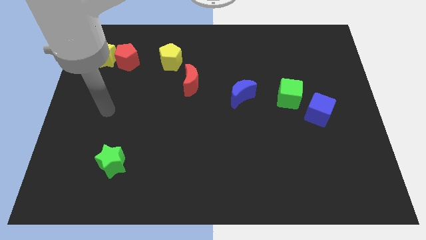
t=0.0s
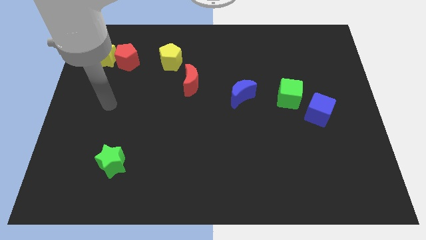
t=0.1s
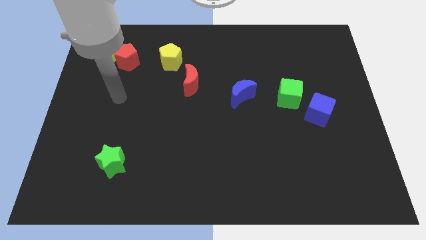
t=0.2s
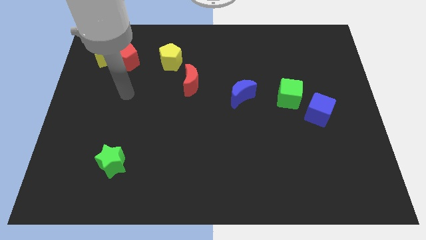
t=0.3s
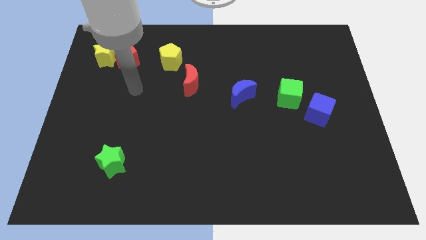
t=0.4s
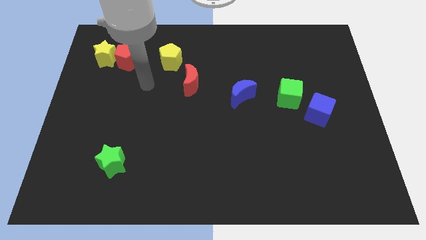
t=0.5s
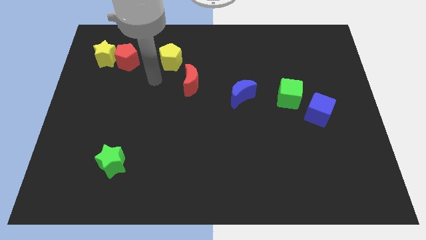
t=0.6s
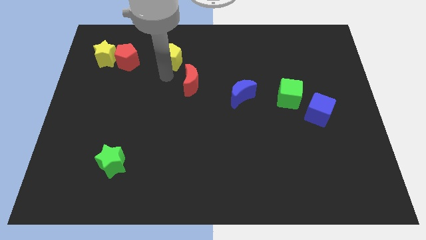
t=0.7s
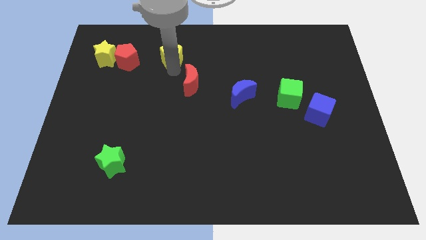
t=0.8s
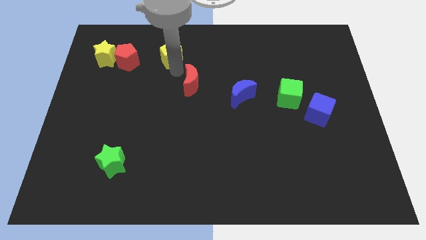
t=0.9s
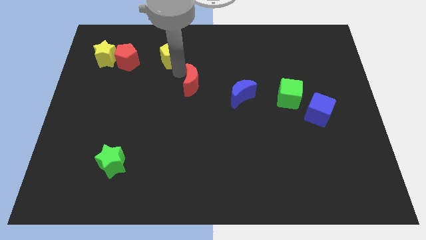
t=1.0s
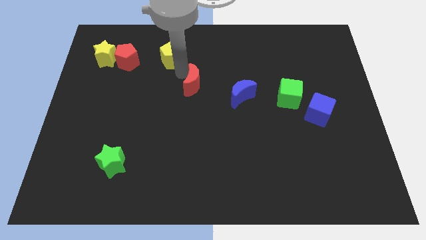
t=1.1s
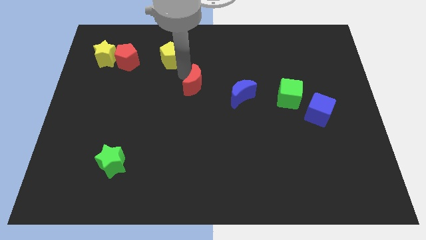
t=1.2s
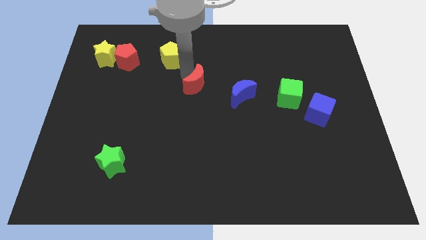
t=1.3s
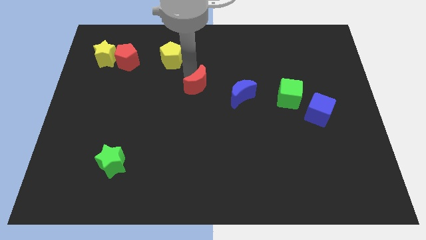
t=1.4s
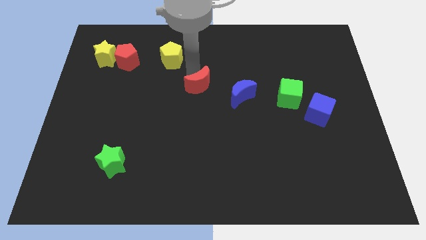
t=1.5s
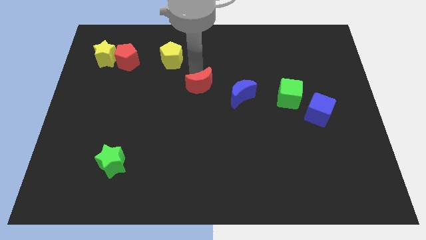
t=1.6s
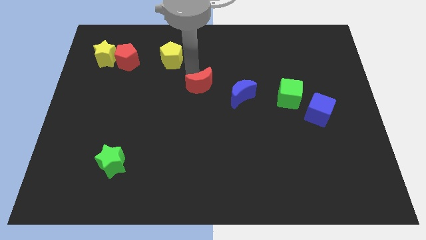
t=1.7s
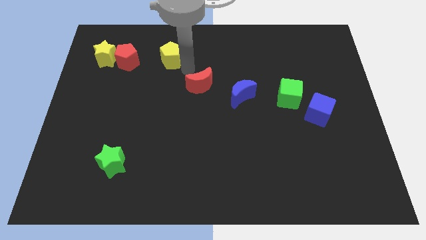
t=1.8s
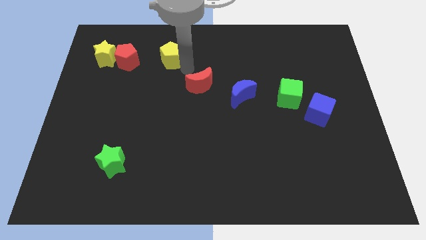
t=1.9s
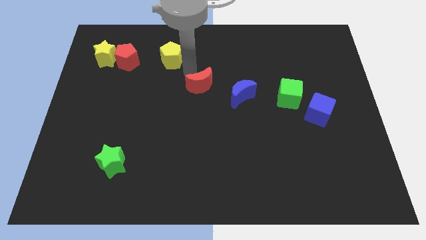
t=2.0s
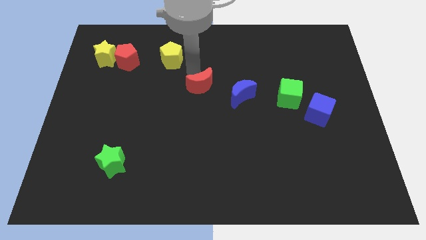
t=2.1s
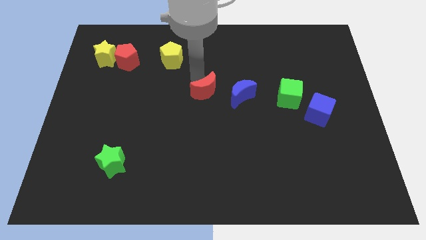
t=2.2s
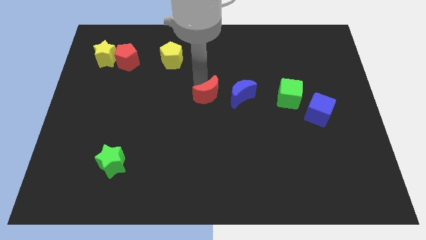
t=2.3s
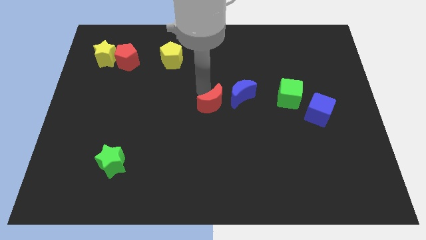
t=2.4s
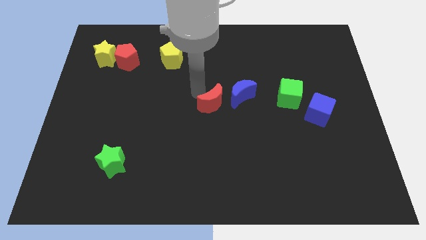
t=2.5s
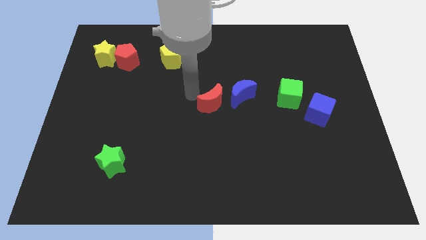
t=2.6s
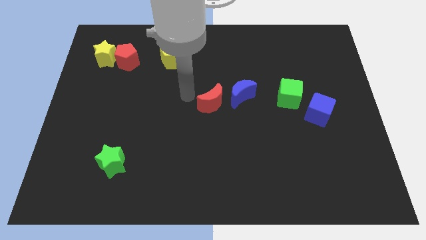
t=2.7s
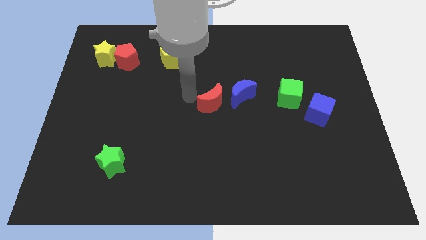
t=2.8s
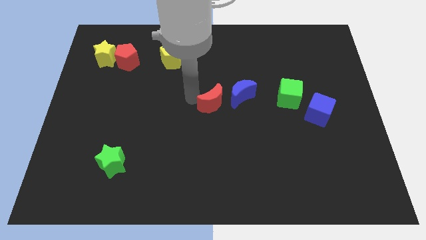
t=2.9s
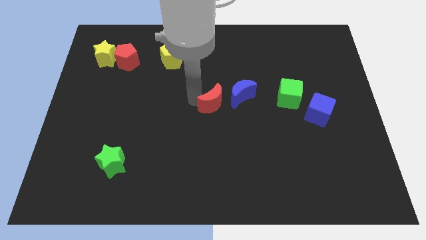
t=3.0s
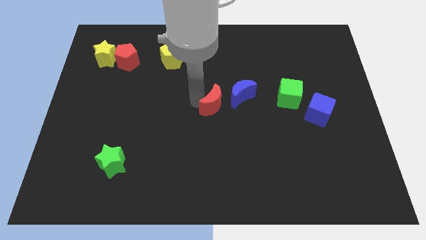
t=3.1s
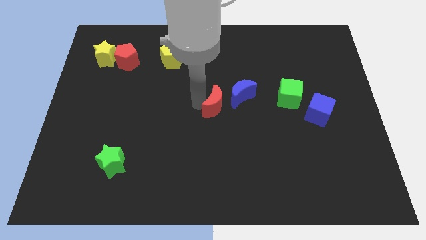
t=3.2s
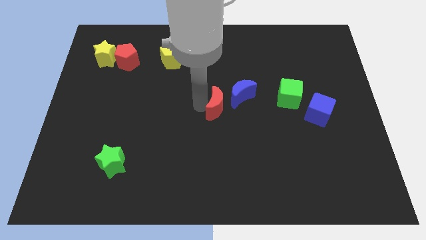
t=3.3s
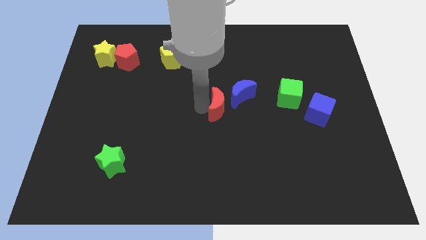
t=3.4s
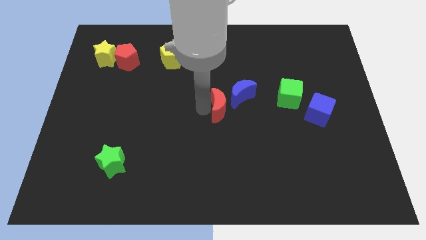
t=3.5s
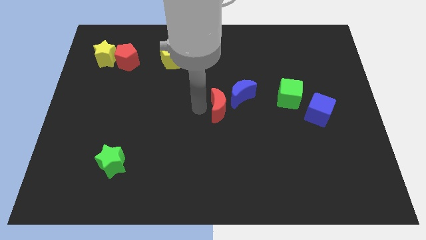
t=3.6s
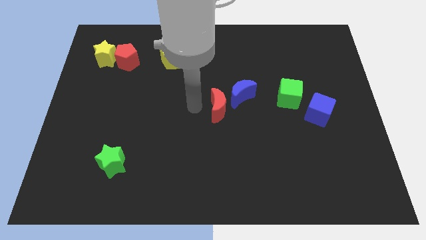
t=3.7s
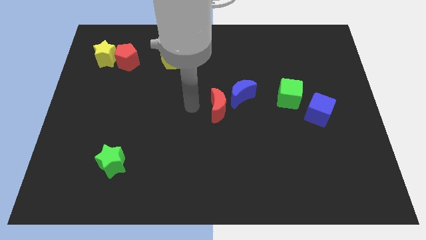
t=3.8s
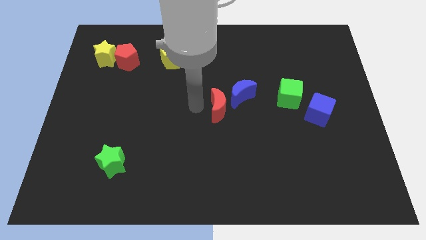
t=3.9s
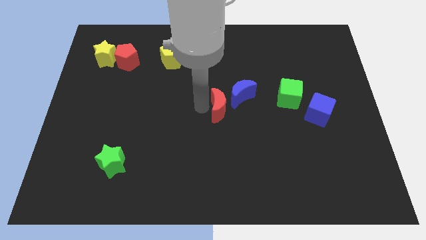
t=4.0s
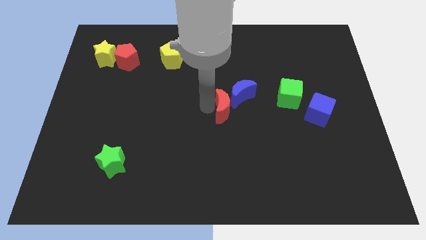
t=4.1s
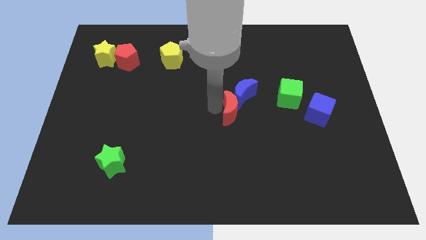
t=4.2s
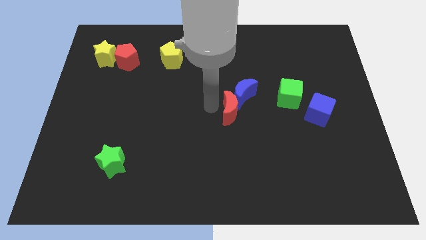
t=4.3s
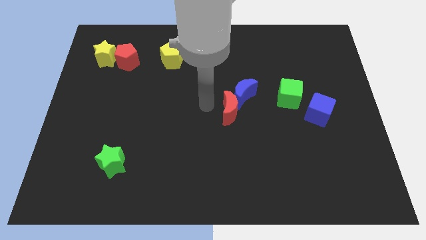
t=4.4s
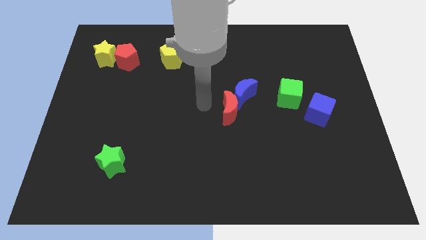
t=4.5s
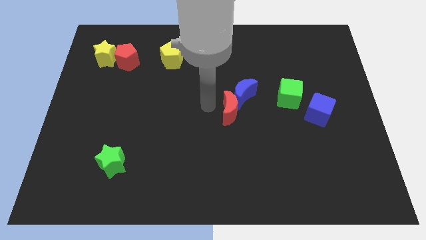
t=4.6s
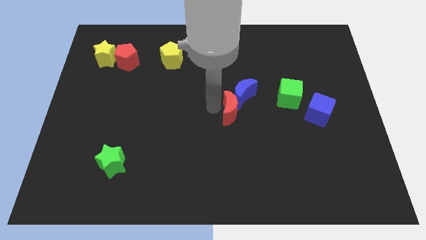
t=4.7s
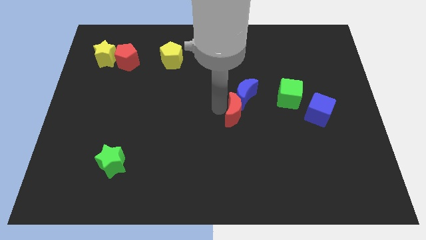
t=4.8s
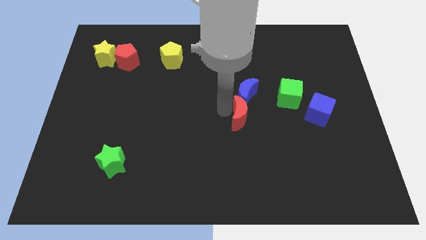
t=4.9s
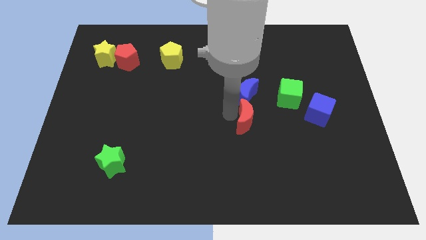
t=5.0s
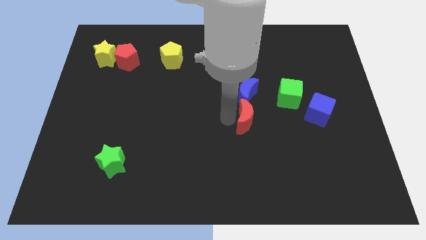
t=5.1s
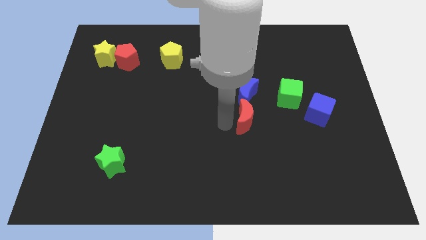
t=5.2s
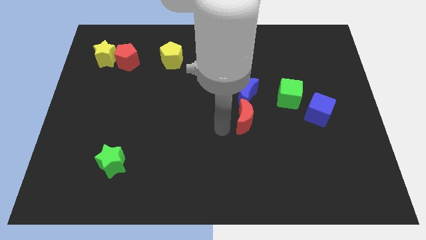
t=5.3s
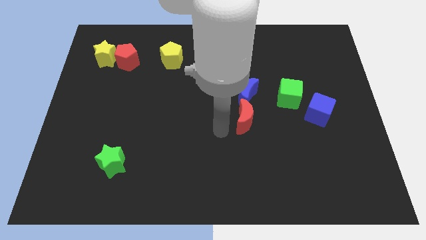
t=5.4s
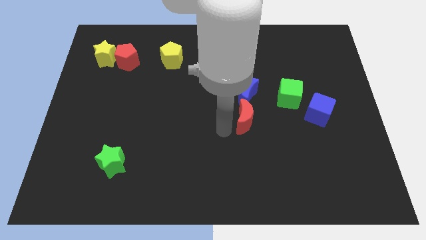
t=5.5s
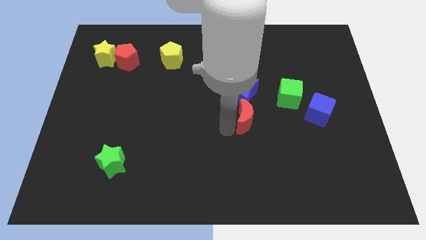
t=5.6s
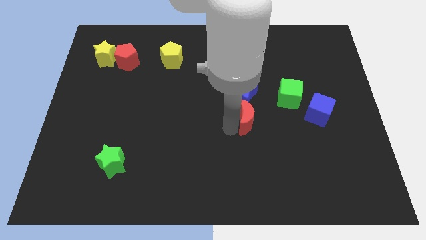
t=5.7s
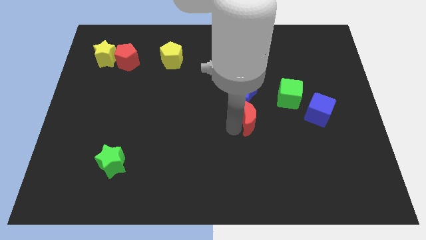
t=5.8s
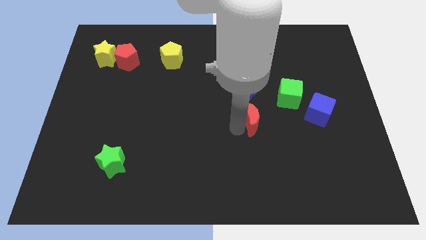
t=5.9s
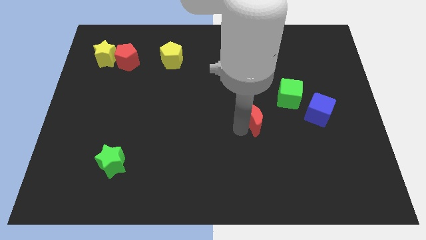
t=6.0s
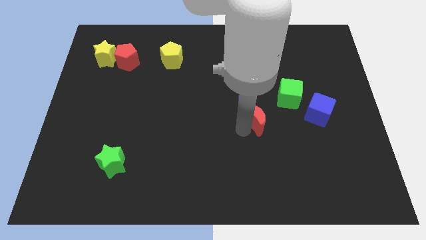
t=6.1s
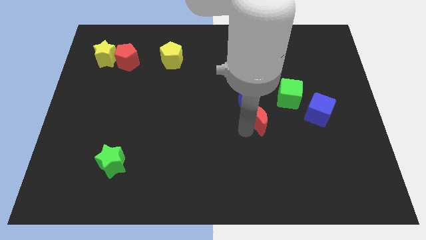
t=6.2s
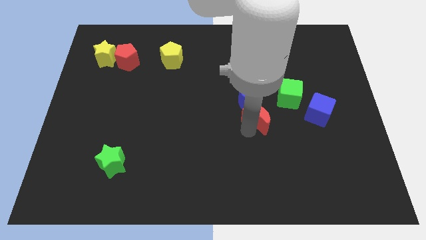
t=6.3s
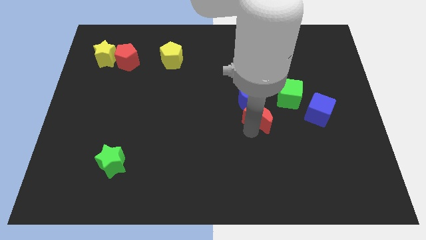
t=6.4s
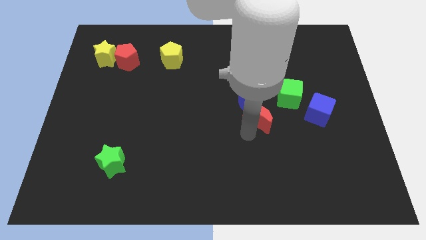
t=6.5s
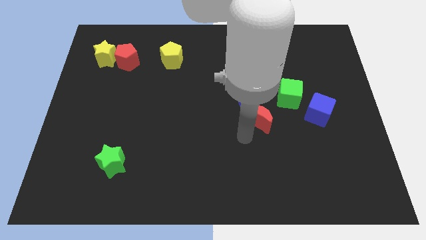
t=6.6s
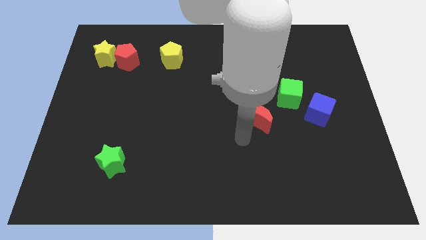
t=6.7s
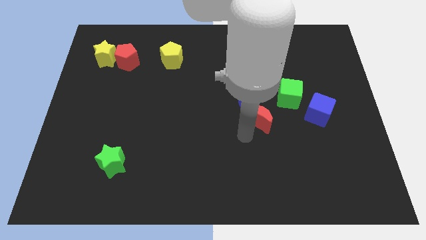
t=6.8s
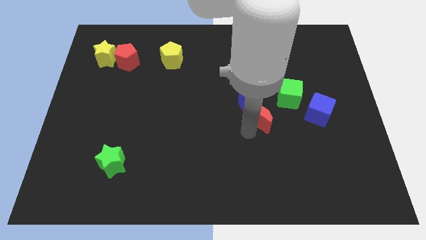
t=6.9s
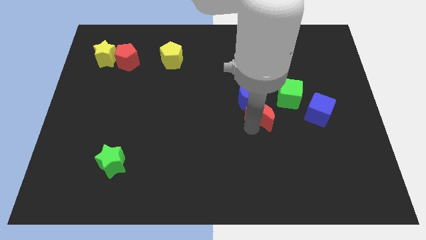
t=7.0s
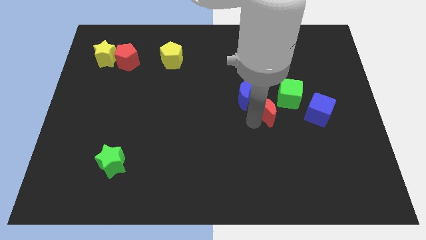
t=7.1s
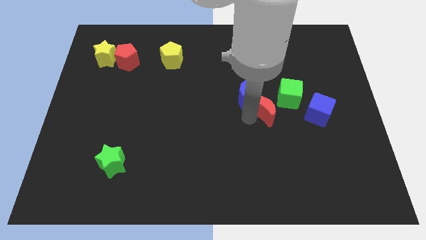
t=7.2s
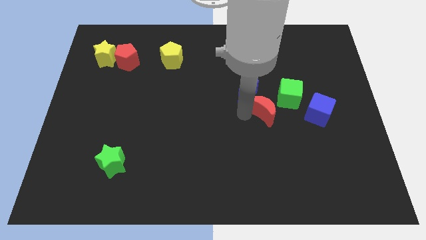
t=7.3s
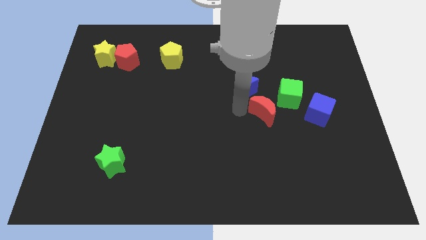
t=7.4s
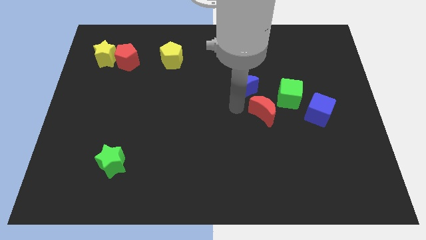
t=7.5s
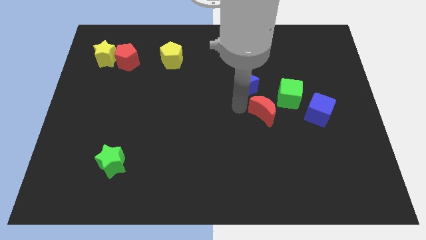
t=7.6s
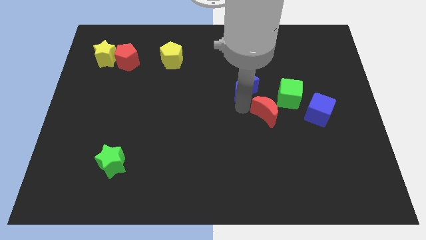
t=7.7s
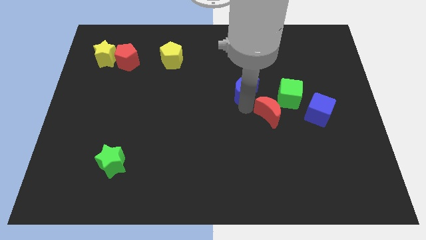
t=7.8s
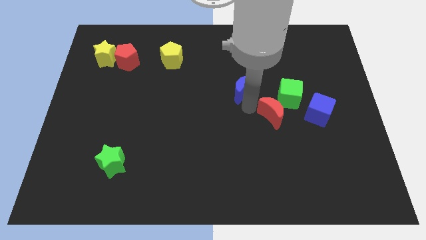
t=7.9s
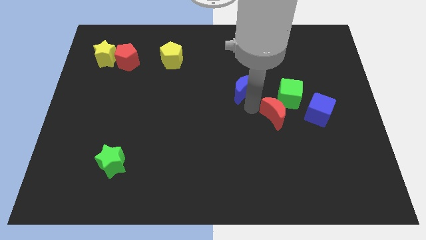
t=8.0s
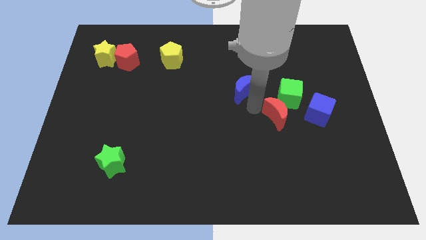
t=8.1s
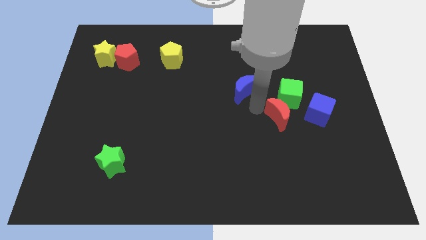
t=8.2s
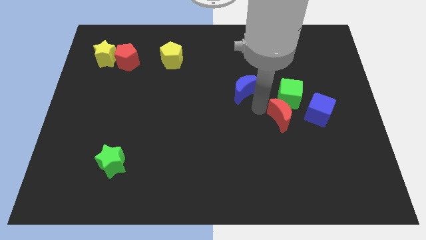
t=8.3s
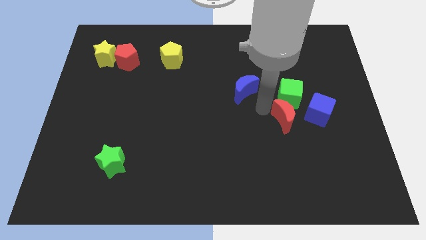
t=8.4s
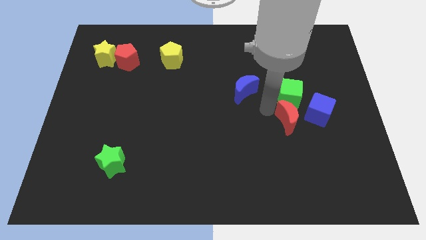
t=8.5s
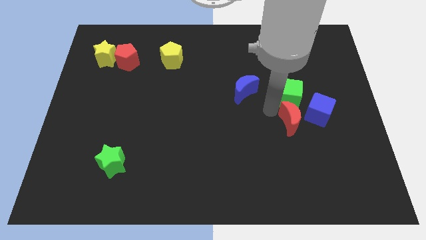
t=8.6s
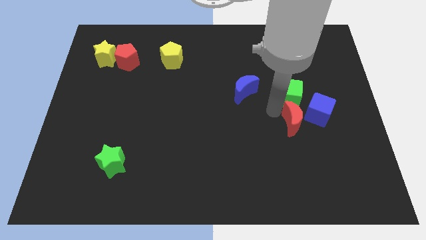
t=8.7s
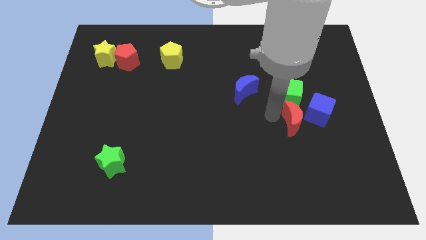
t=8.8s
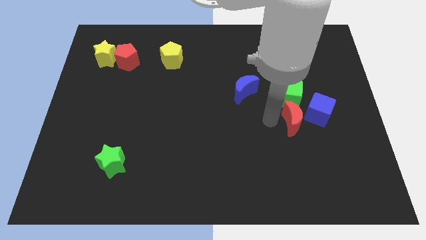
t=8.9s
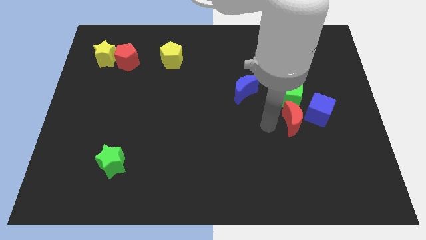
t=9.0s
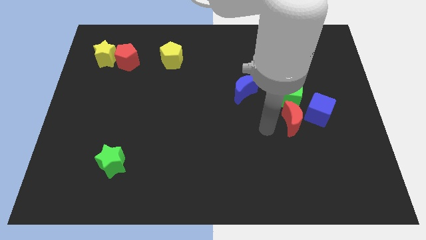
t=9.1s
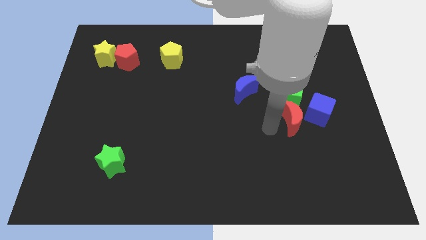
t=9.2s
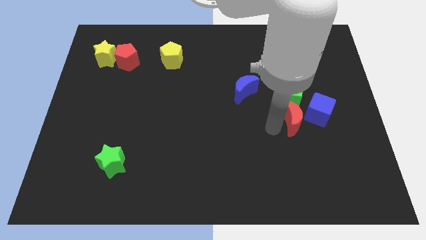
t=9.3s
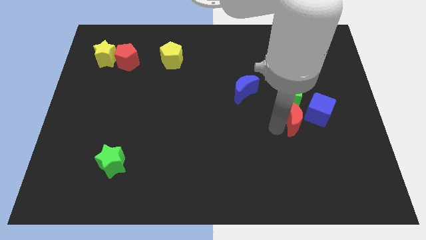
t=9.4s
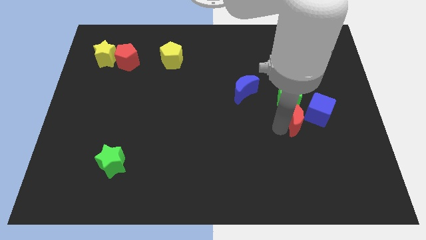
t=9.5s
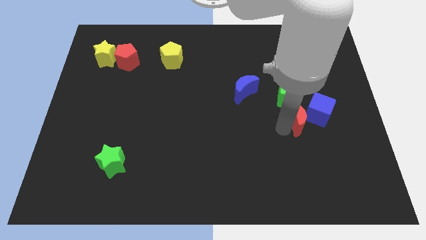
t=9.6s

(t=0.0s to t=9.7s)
move the red moon to the blue cube
